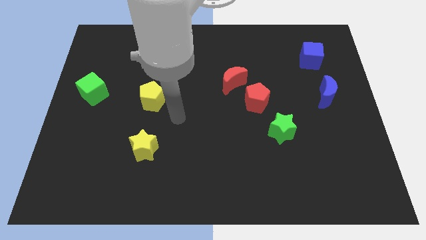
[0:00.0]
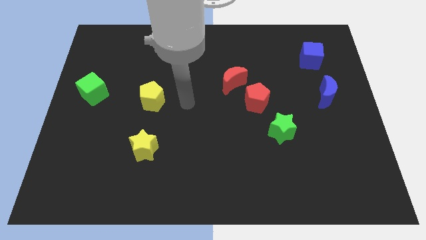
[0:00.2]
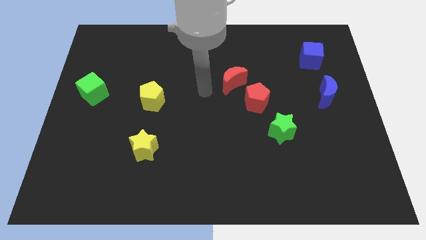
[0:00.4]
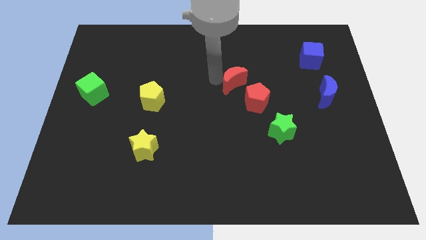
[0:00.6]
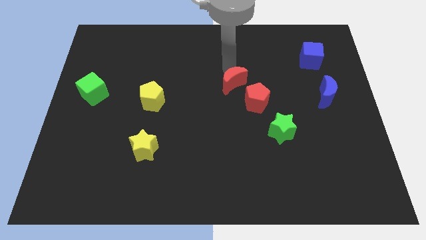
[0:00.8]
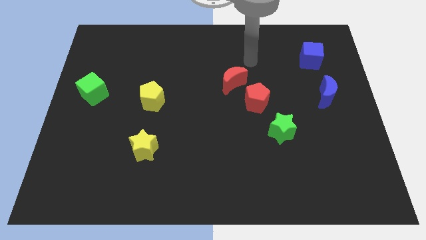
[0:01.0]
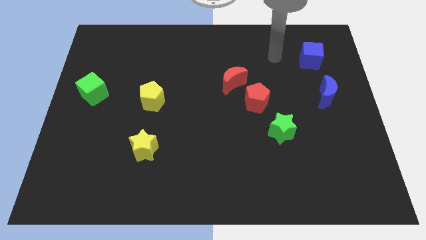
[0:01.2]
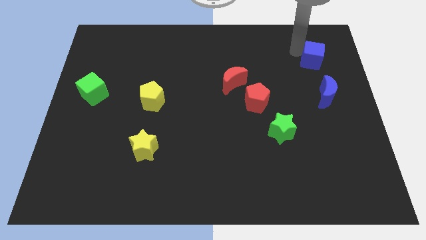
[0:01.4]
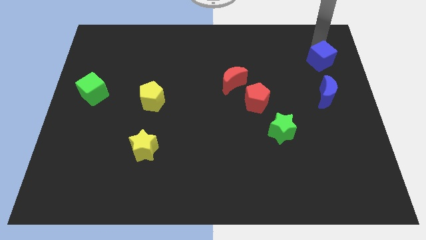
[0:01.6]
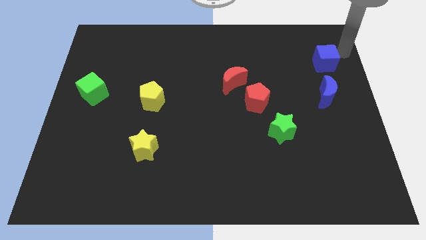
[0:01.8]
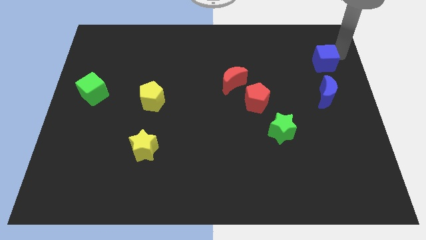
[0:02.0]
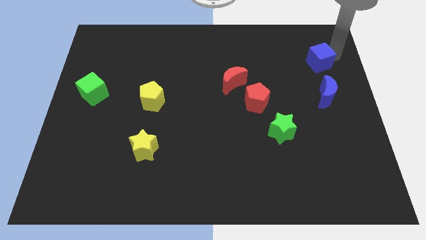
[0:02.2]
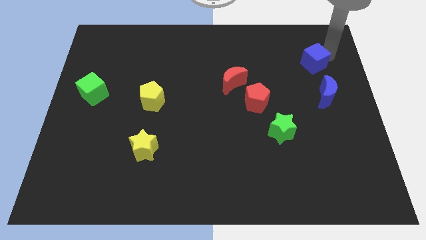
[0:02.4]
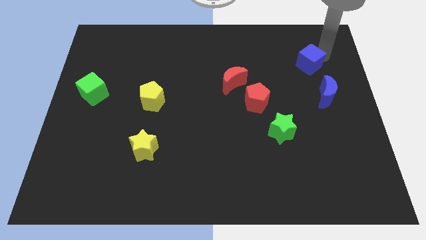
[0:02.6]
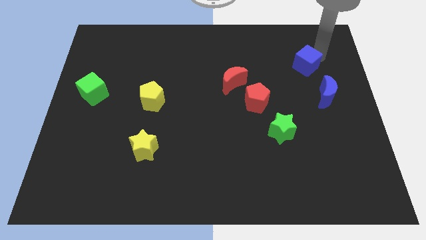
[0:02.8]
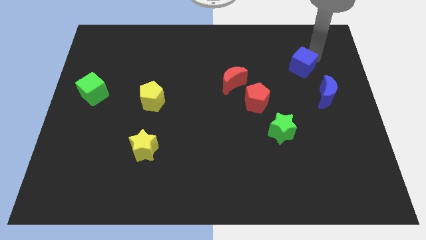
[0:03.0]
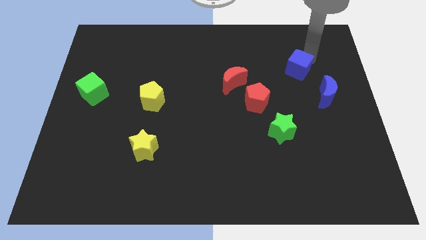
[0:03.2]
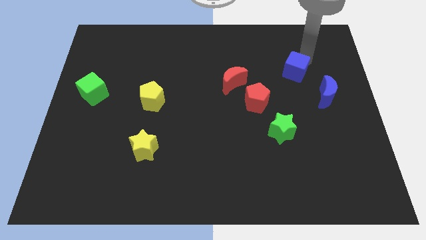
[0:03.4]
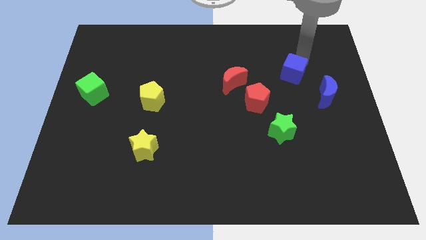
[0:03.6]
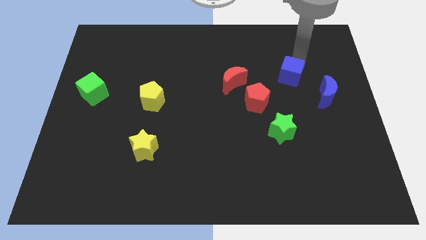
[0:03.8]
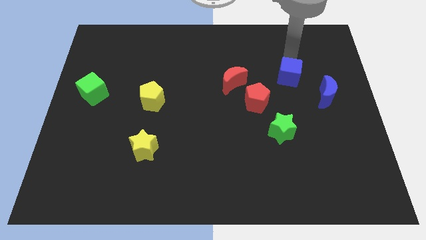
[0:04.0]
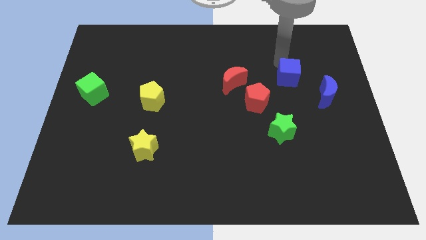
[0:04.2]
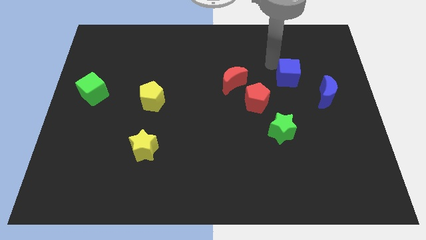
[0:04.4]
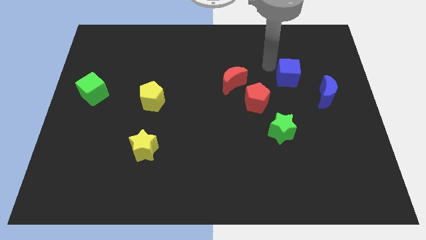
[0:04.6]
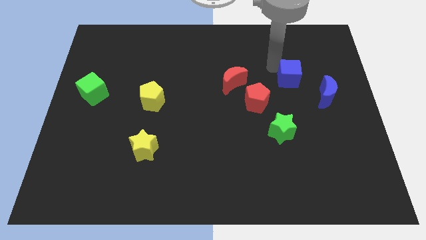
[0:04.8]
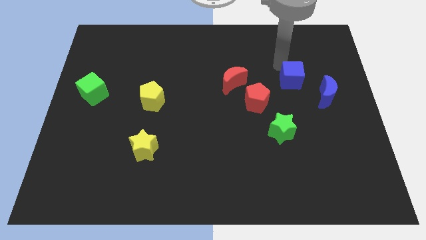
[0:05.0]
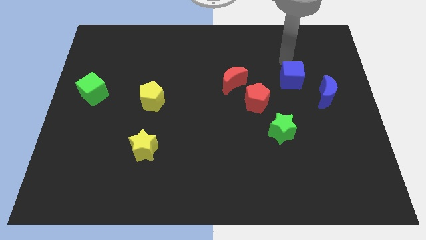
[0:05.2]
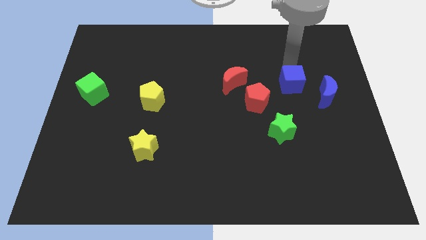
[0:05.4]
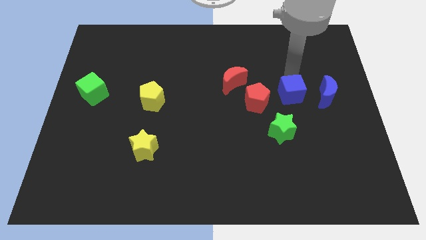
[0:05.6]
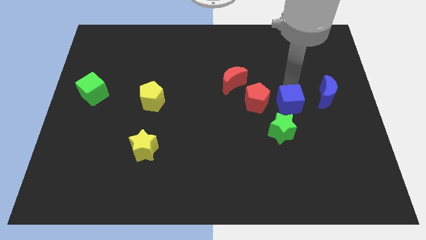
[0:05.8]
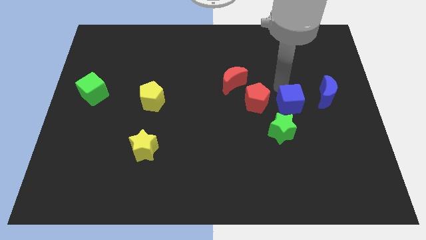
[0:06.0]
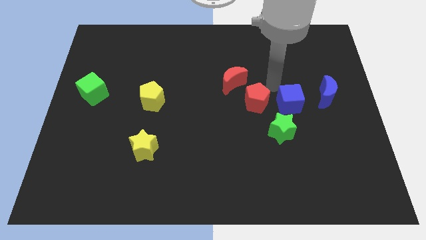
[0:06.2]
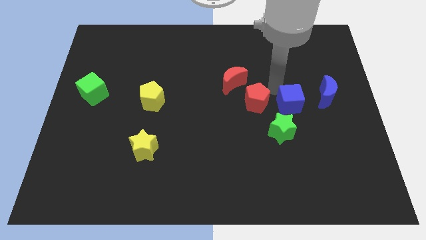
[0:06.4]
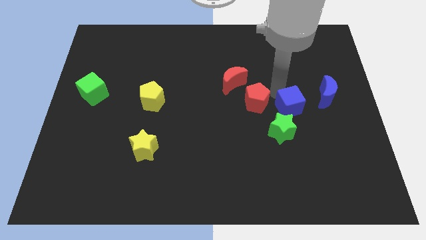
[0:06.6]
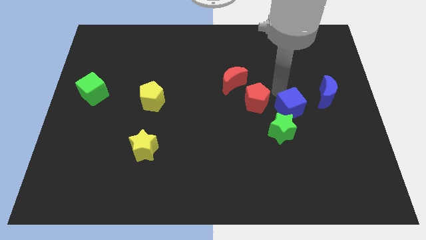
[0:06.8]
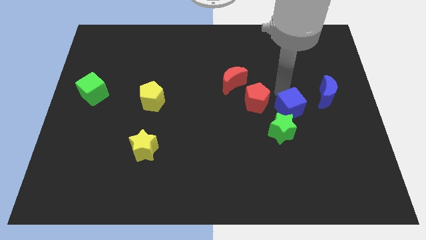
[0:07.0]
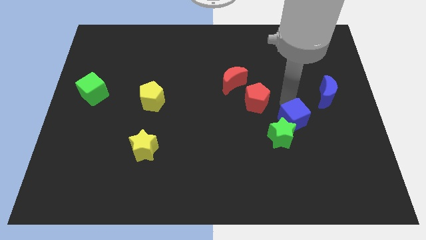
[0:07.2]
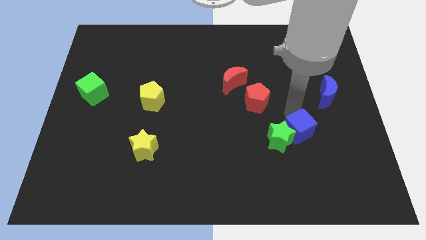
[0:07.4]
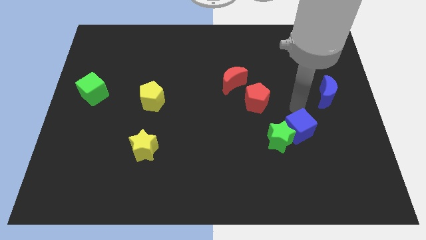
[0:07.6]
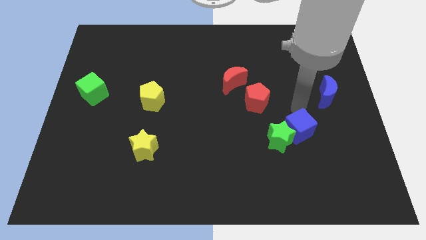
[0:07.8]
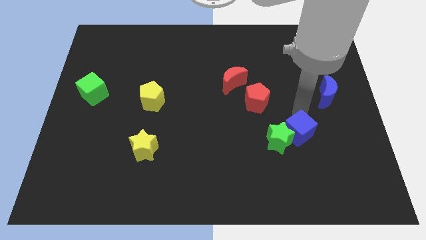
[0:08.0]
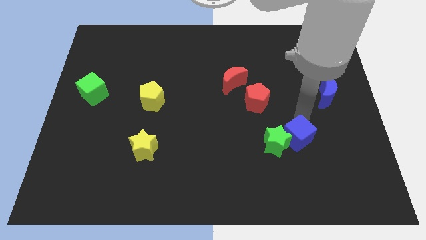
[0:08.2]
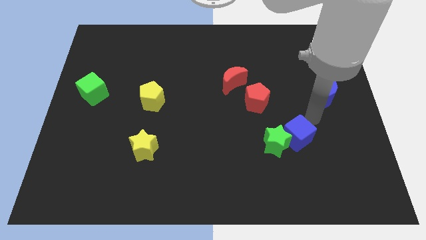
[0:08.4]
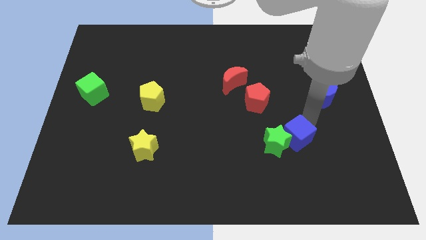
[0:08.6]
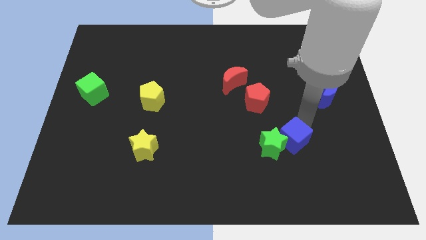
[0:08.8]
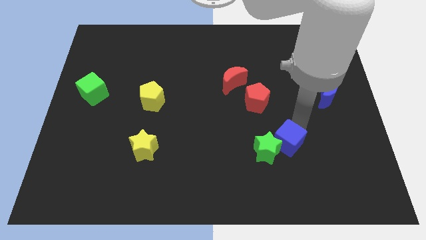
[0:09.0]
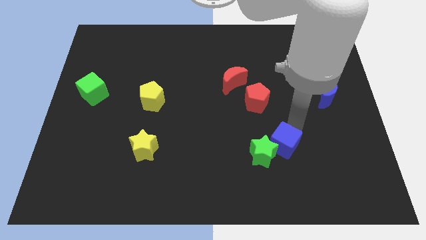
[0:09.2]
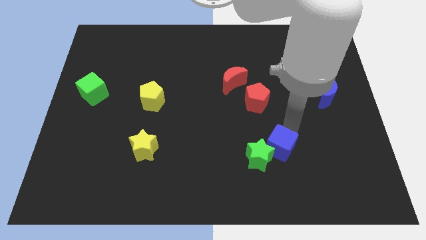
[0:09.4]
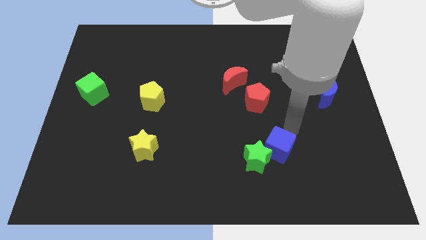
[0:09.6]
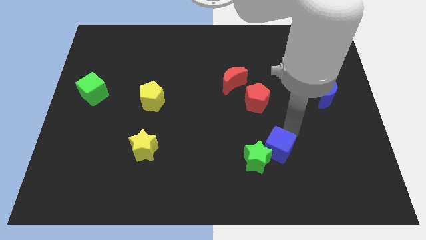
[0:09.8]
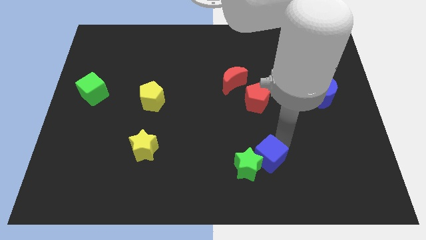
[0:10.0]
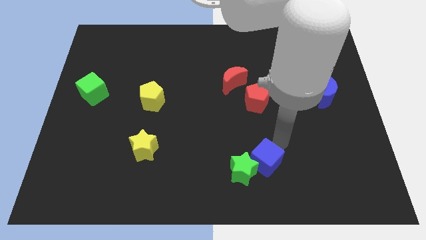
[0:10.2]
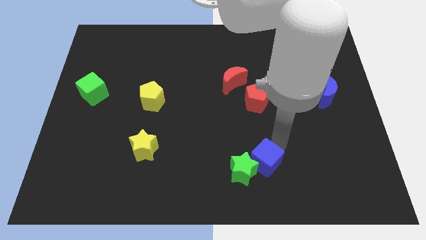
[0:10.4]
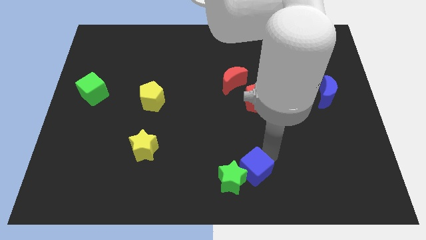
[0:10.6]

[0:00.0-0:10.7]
slide the blue cube to the bottom side

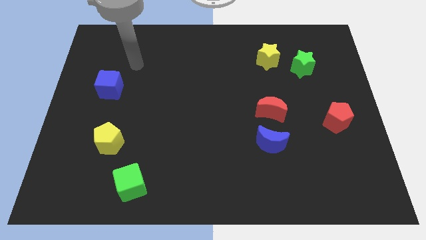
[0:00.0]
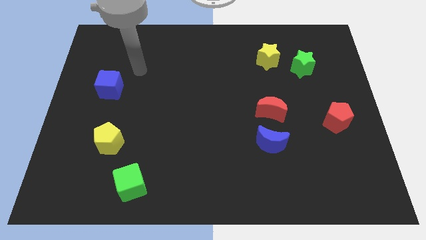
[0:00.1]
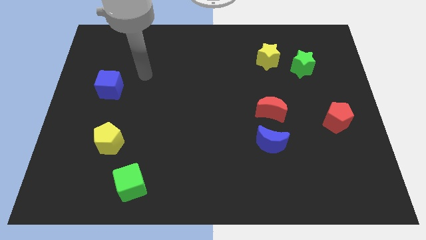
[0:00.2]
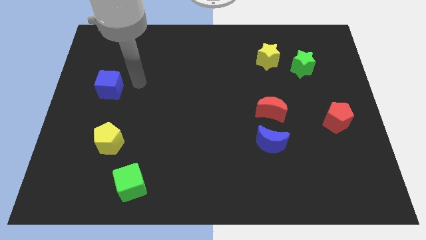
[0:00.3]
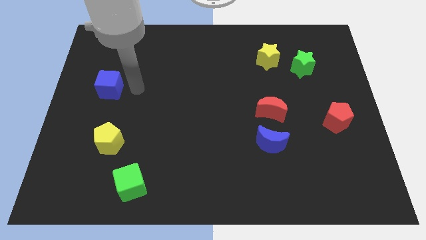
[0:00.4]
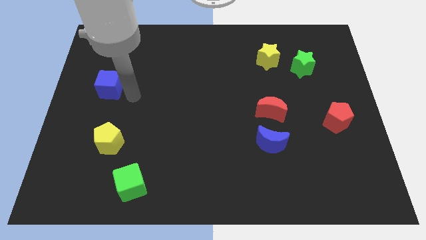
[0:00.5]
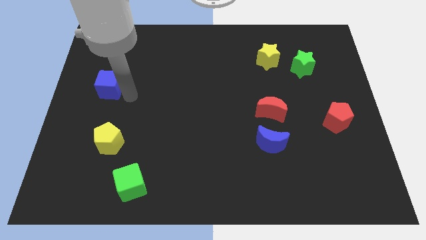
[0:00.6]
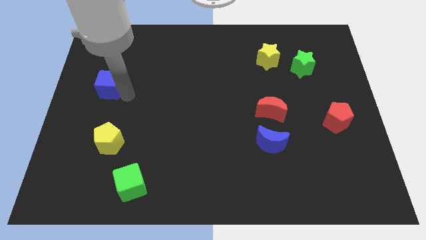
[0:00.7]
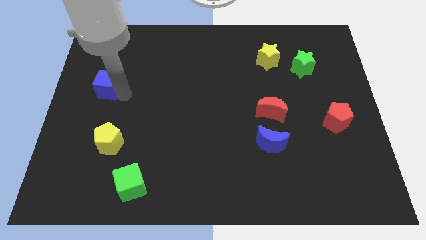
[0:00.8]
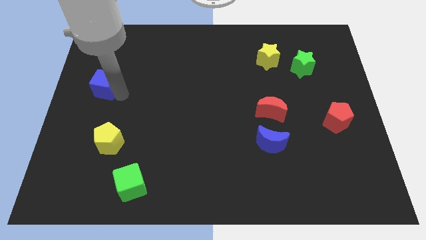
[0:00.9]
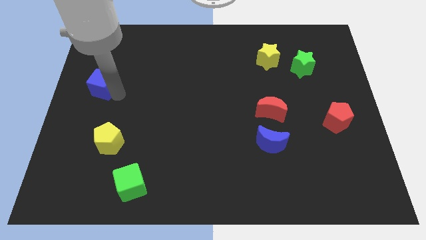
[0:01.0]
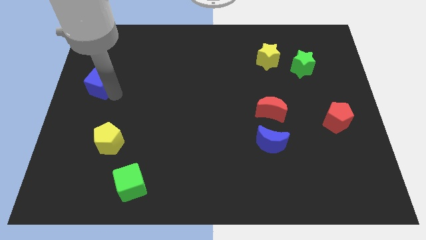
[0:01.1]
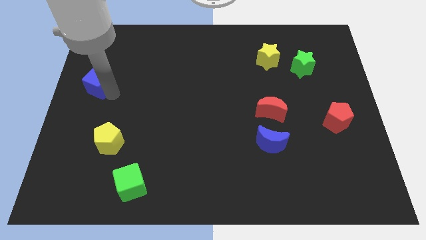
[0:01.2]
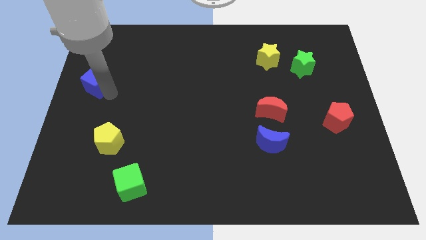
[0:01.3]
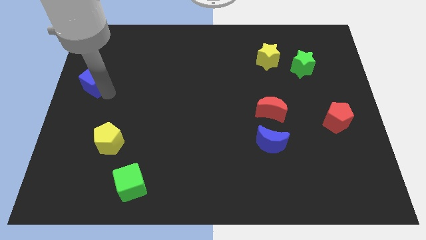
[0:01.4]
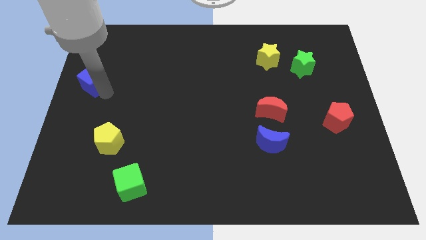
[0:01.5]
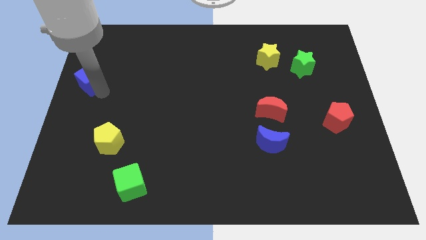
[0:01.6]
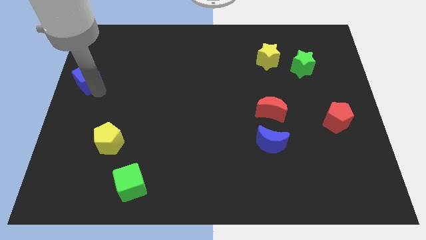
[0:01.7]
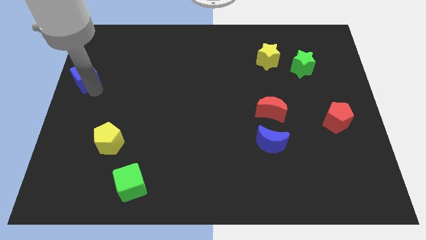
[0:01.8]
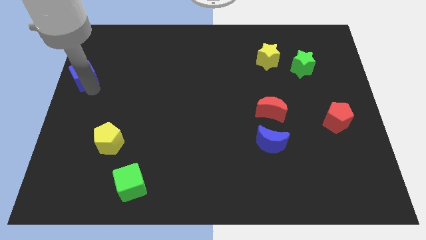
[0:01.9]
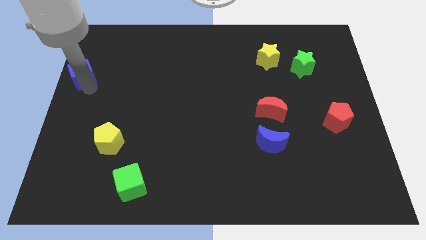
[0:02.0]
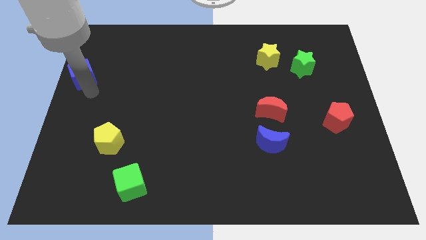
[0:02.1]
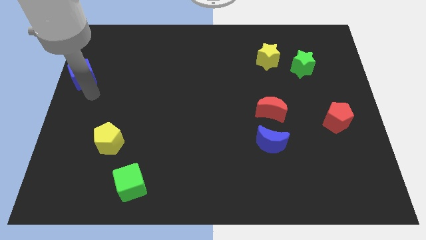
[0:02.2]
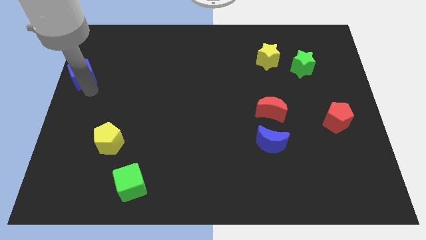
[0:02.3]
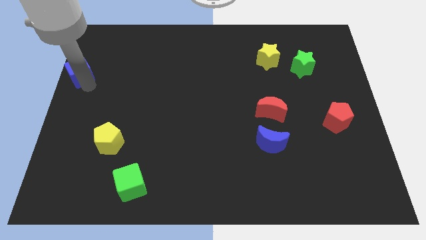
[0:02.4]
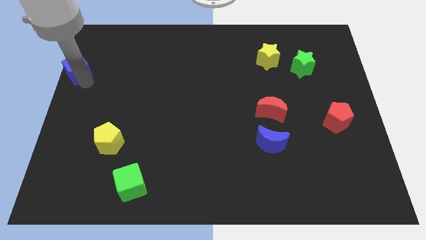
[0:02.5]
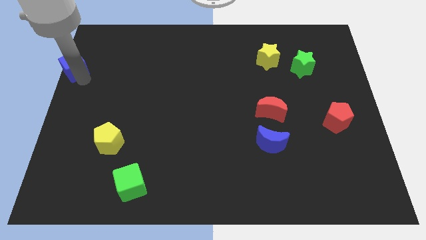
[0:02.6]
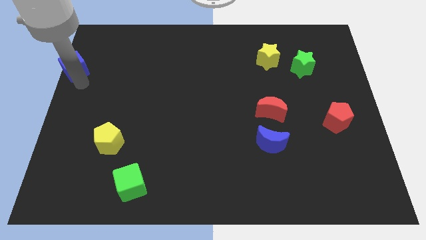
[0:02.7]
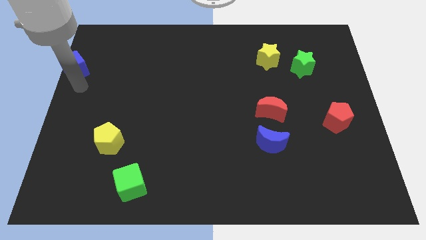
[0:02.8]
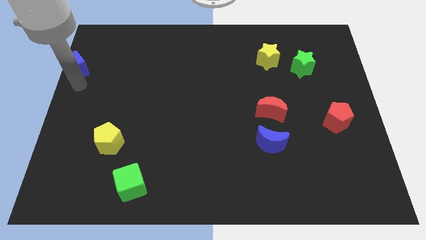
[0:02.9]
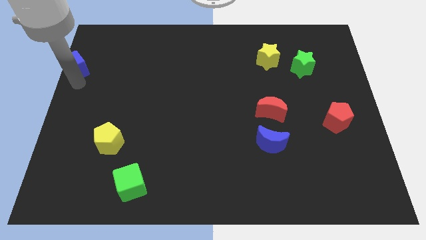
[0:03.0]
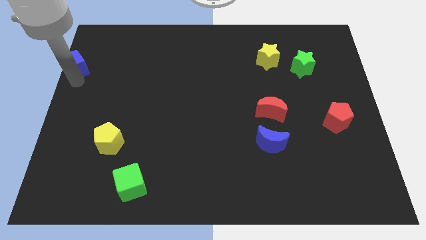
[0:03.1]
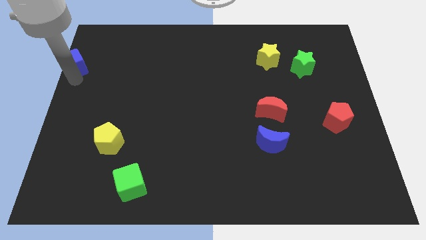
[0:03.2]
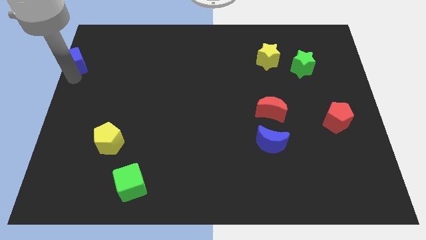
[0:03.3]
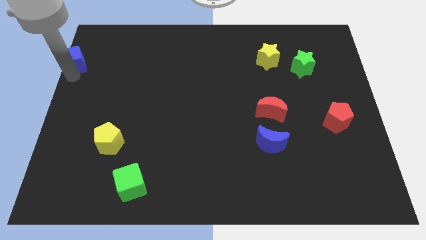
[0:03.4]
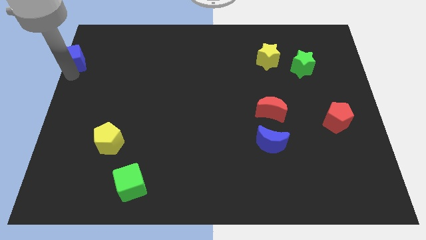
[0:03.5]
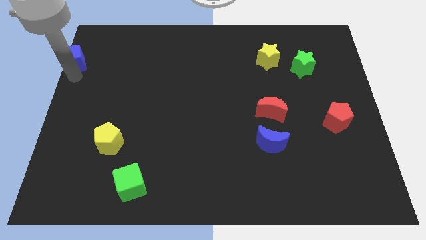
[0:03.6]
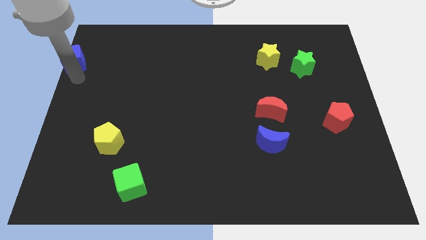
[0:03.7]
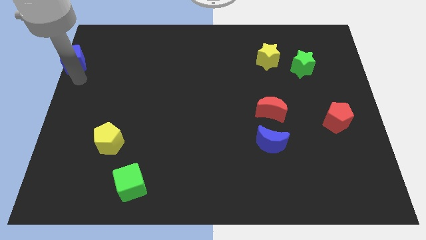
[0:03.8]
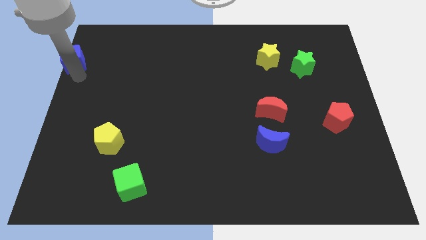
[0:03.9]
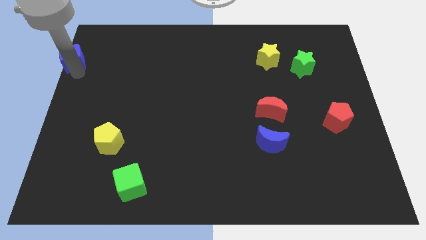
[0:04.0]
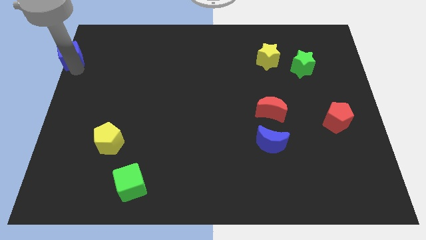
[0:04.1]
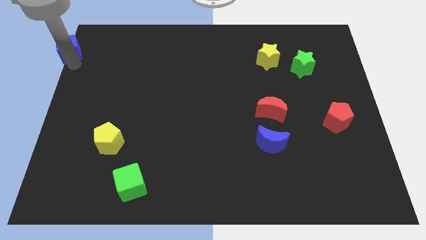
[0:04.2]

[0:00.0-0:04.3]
slide the blue cube to the top left corner
